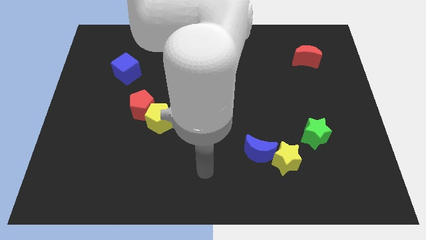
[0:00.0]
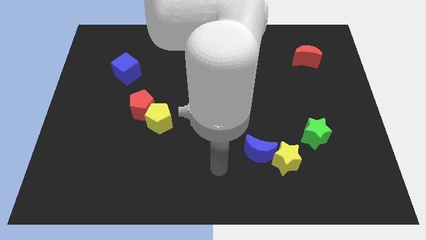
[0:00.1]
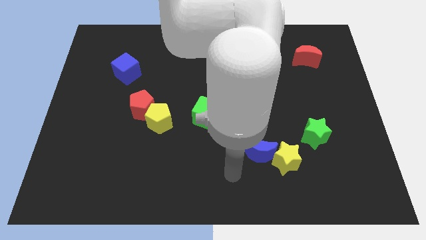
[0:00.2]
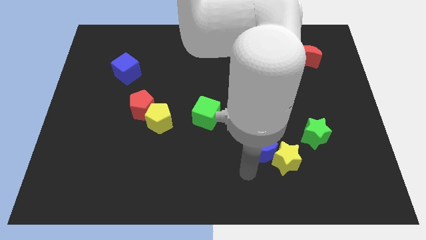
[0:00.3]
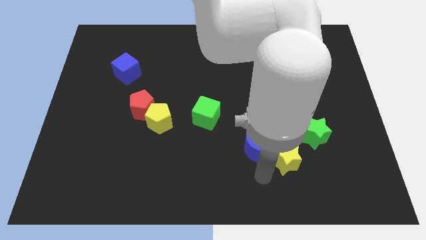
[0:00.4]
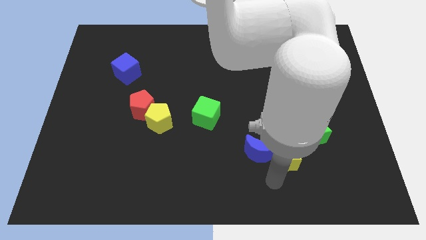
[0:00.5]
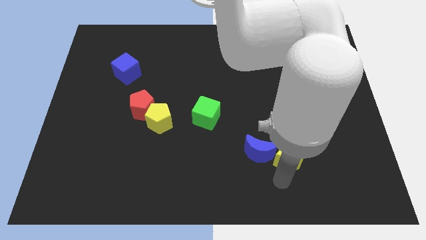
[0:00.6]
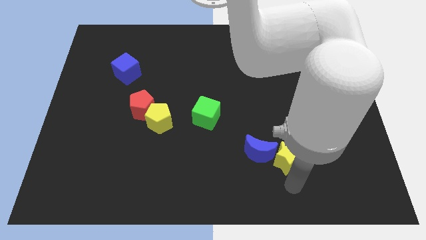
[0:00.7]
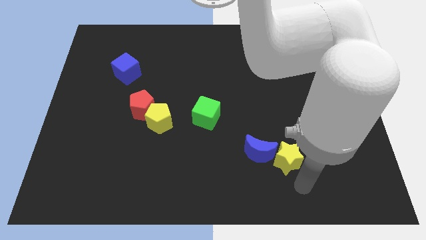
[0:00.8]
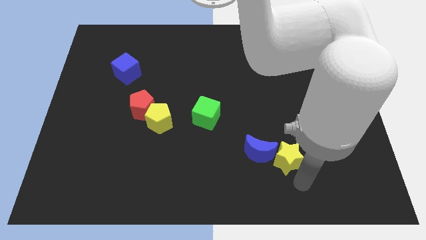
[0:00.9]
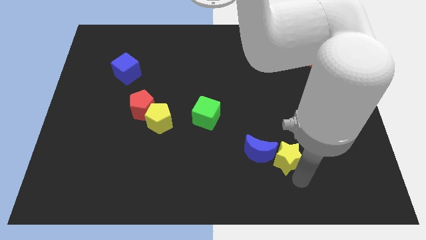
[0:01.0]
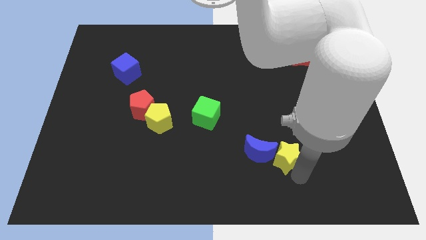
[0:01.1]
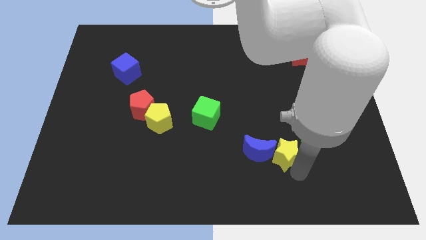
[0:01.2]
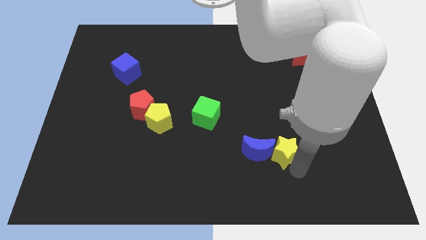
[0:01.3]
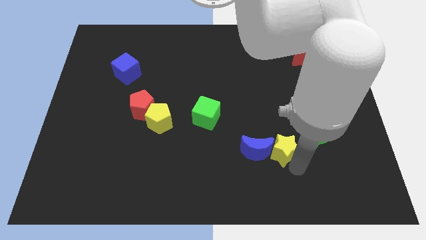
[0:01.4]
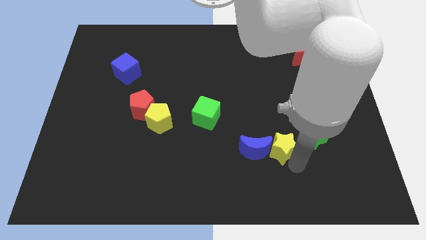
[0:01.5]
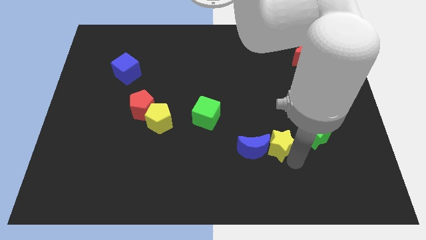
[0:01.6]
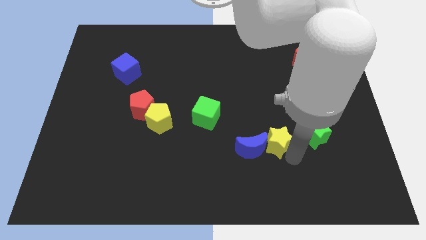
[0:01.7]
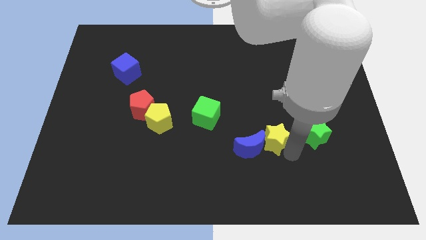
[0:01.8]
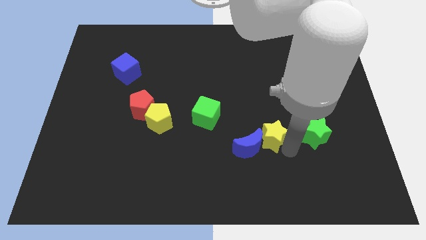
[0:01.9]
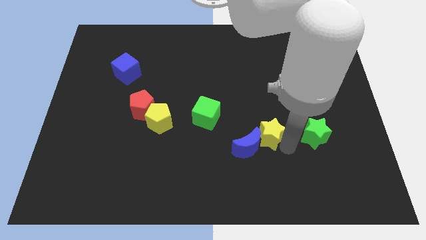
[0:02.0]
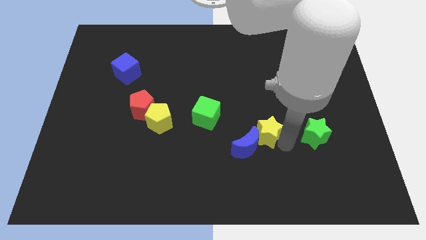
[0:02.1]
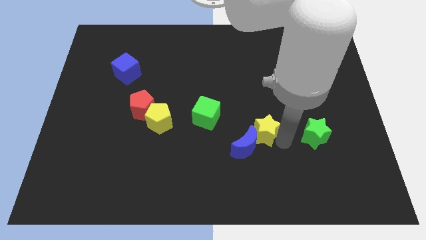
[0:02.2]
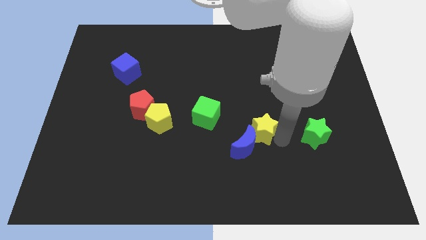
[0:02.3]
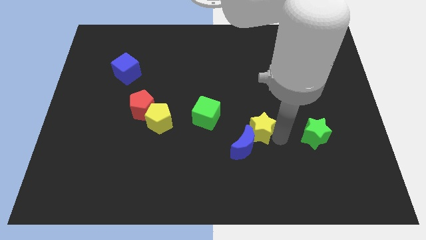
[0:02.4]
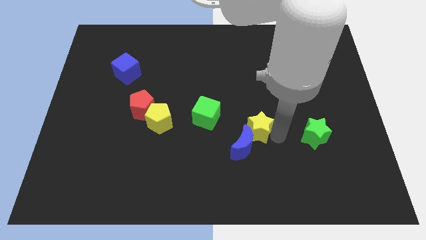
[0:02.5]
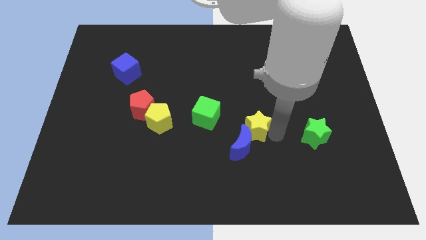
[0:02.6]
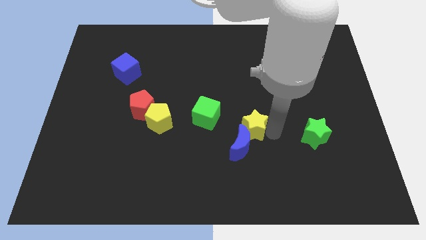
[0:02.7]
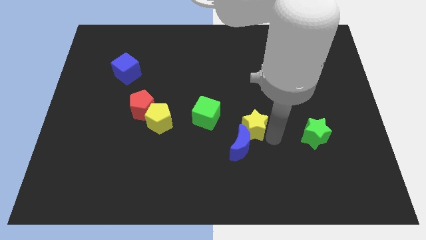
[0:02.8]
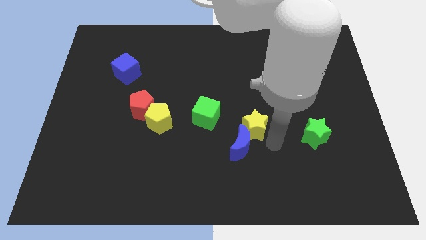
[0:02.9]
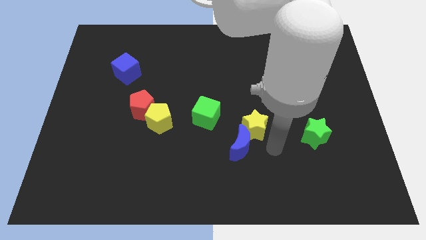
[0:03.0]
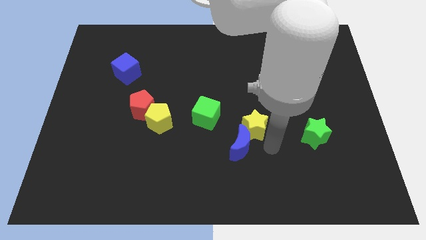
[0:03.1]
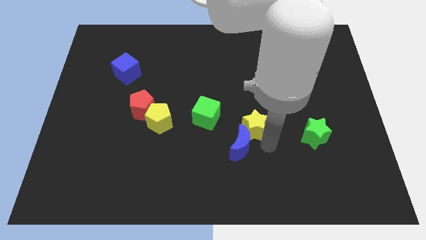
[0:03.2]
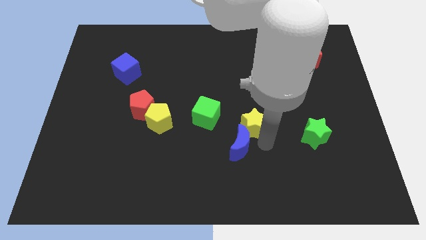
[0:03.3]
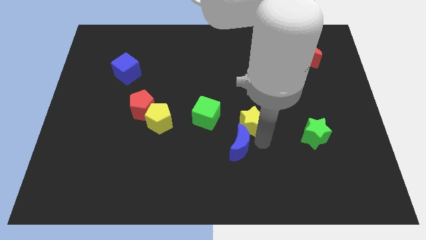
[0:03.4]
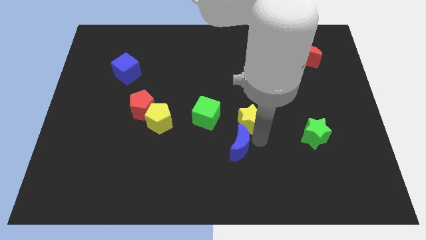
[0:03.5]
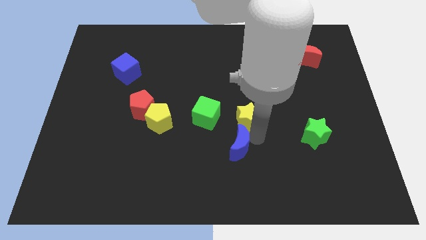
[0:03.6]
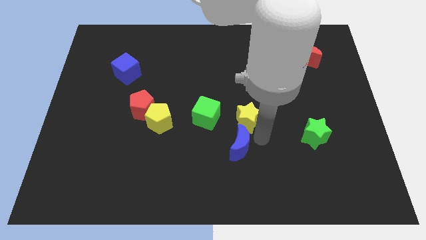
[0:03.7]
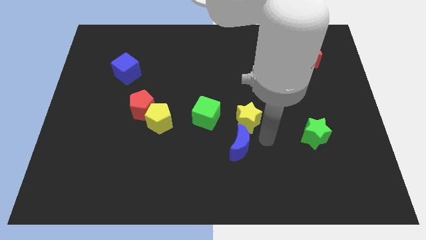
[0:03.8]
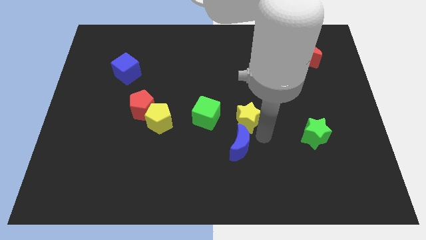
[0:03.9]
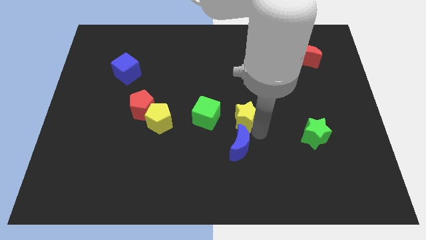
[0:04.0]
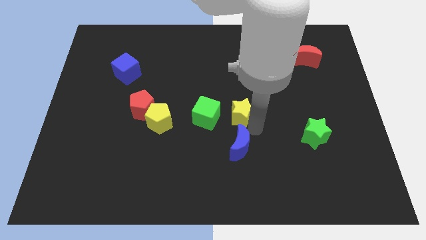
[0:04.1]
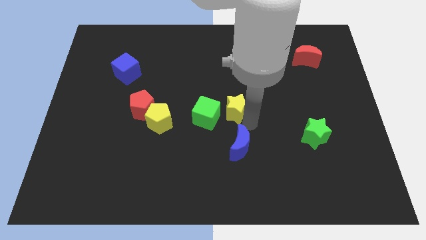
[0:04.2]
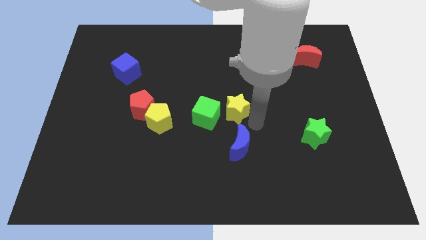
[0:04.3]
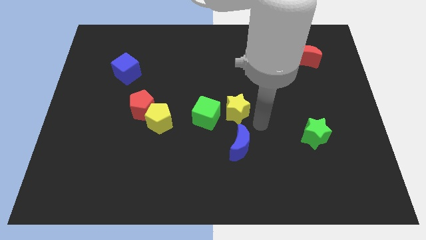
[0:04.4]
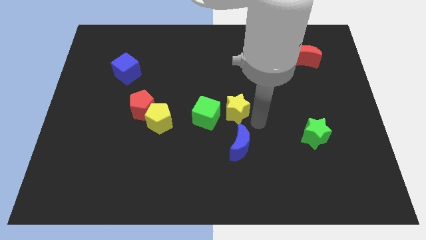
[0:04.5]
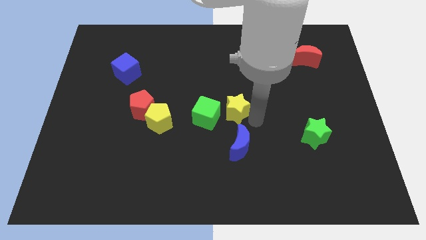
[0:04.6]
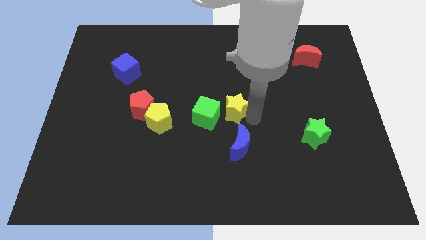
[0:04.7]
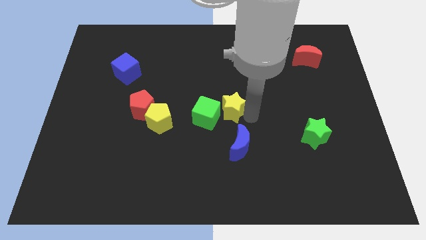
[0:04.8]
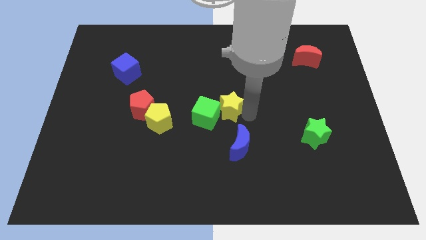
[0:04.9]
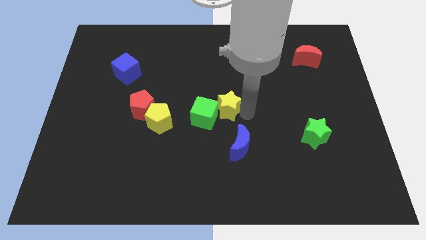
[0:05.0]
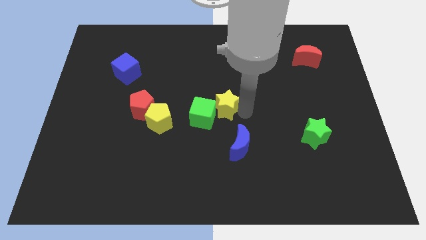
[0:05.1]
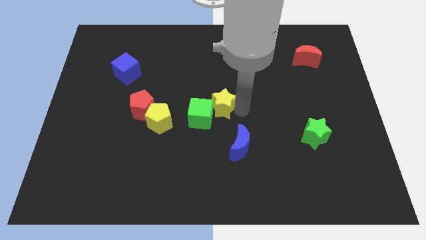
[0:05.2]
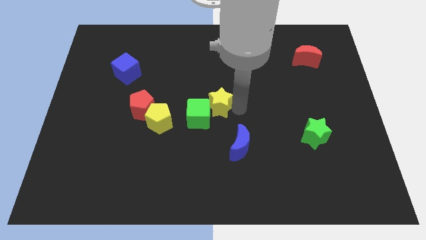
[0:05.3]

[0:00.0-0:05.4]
move the yellow star upwards and left diagonally

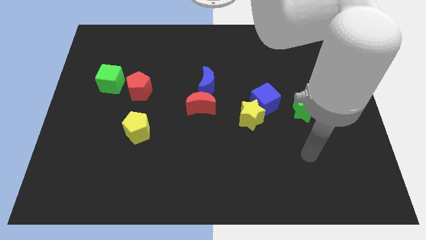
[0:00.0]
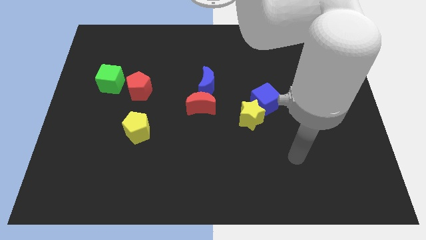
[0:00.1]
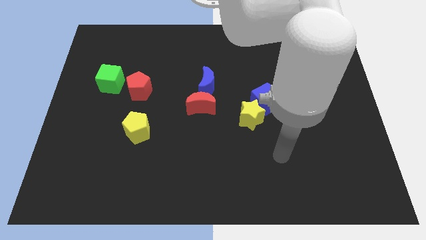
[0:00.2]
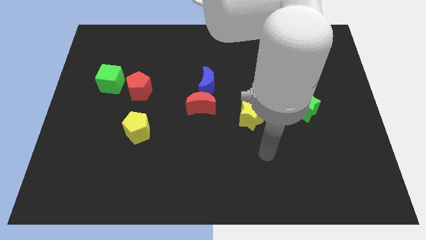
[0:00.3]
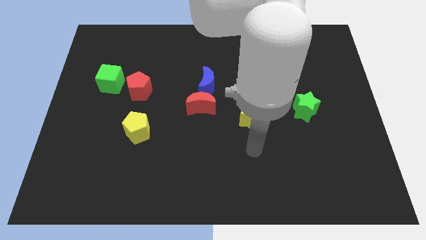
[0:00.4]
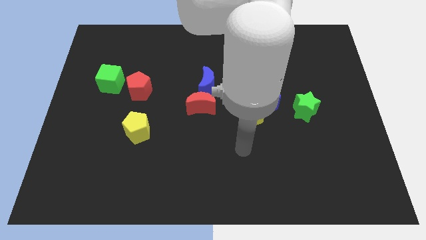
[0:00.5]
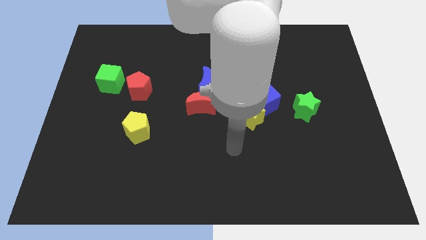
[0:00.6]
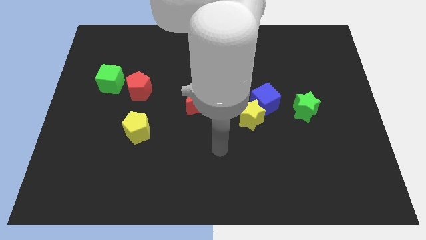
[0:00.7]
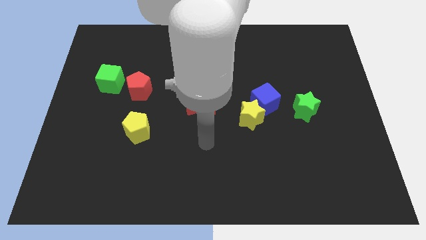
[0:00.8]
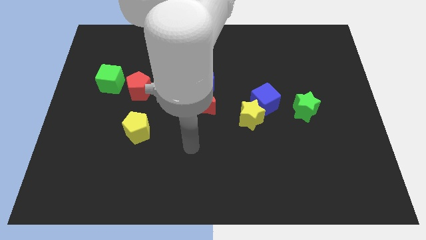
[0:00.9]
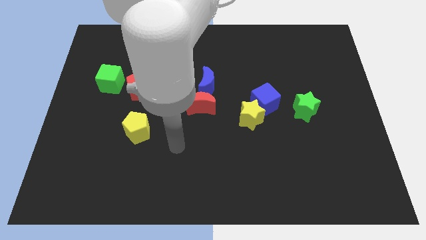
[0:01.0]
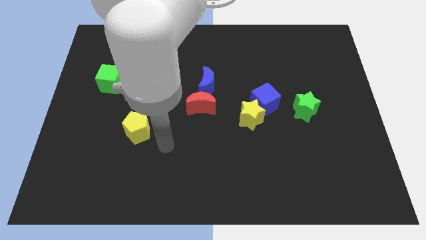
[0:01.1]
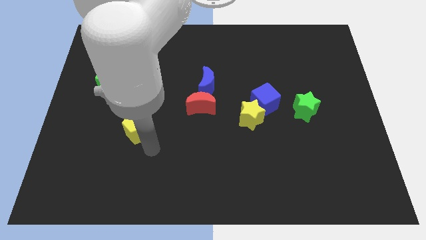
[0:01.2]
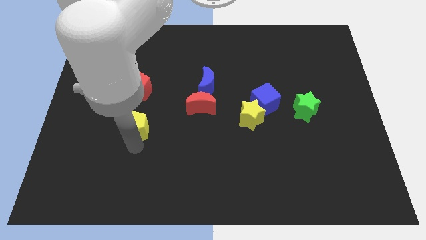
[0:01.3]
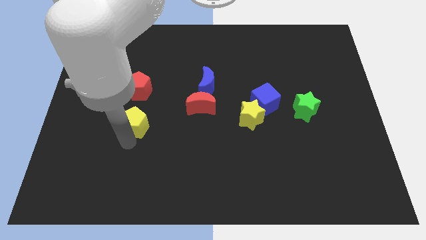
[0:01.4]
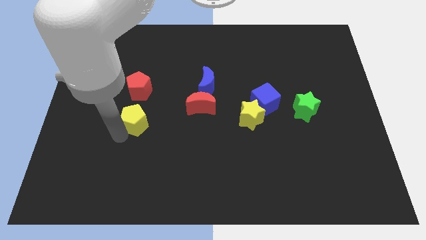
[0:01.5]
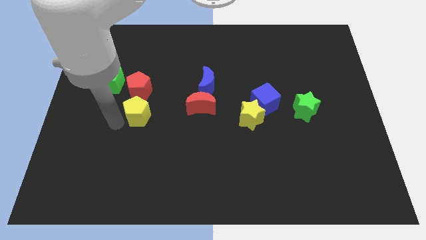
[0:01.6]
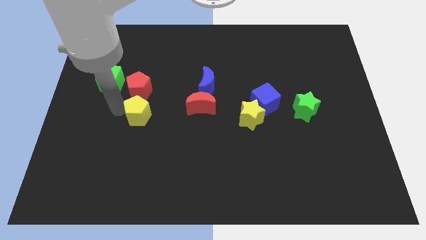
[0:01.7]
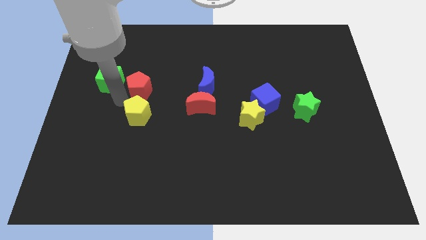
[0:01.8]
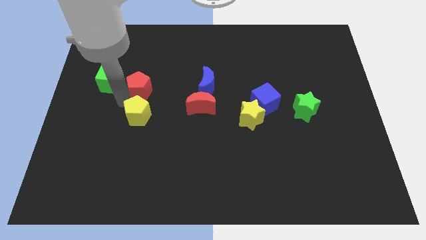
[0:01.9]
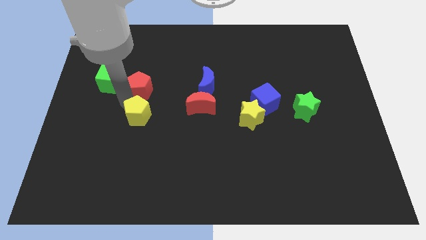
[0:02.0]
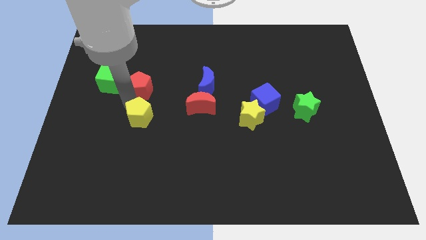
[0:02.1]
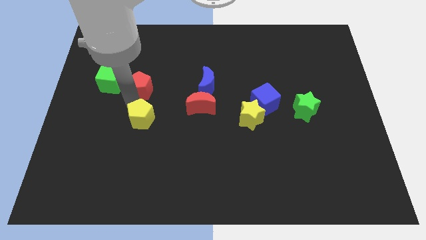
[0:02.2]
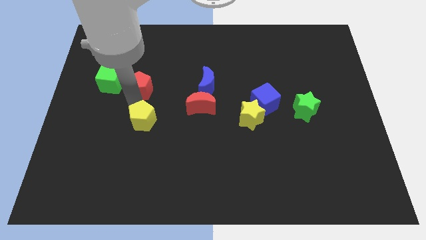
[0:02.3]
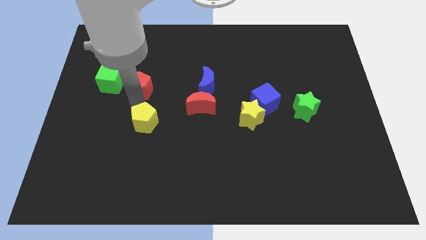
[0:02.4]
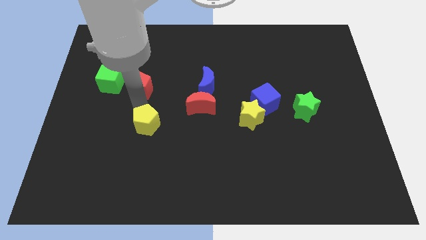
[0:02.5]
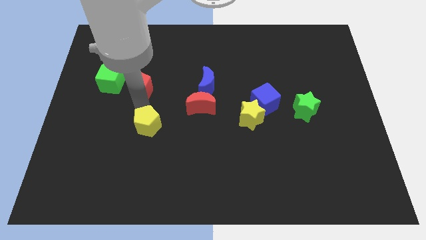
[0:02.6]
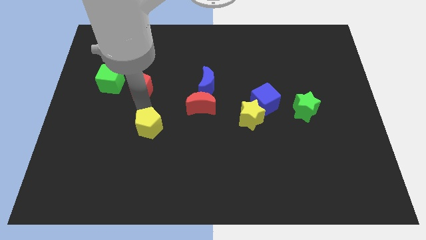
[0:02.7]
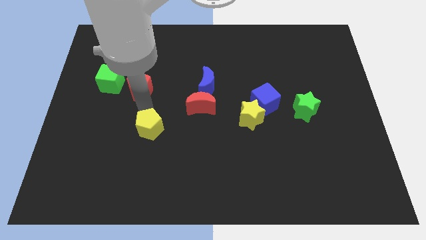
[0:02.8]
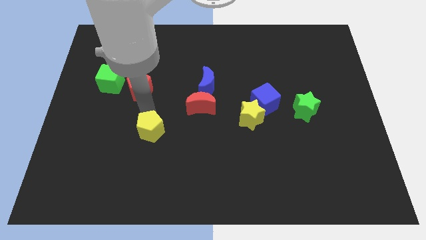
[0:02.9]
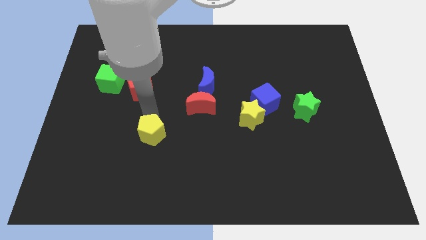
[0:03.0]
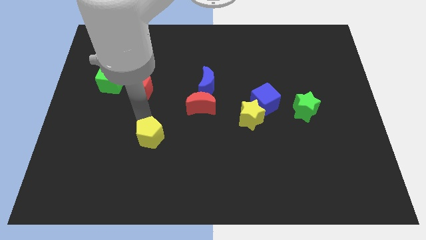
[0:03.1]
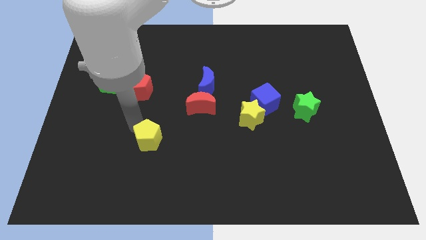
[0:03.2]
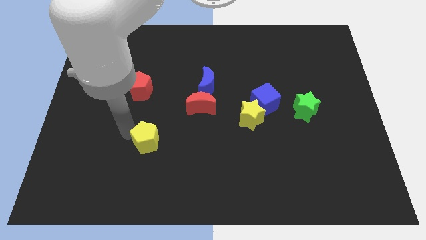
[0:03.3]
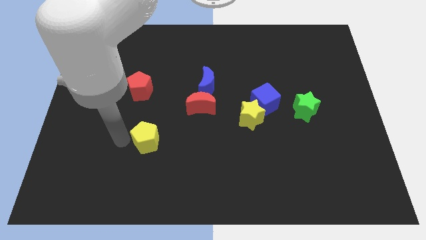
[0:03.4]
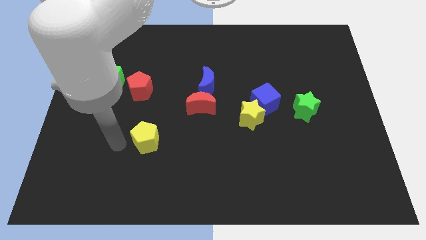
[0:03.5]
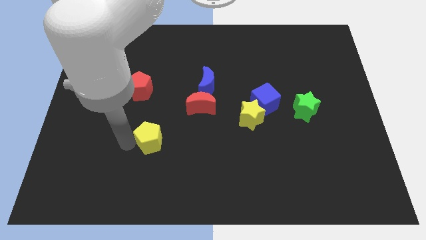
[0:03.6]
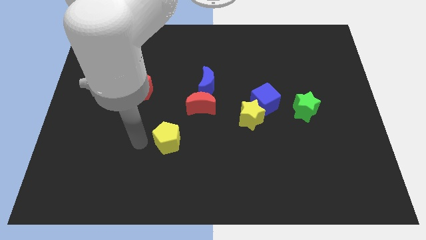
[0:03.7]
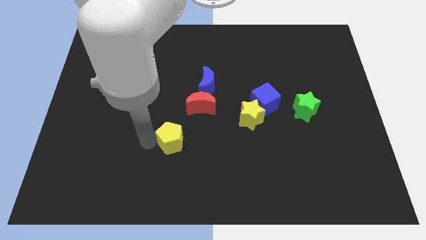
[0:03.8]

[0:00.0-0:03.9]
slightly move the yellow pentagon to the right
